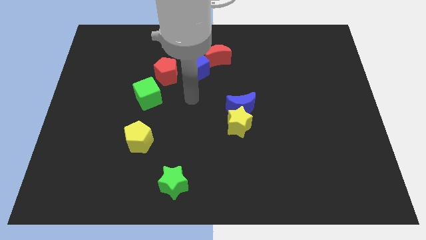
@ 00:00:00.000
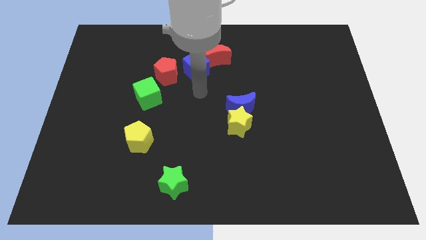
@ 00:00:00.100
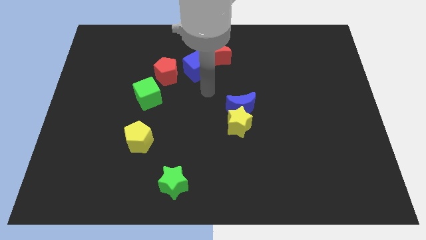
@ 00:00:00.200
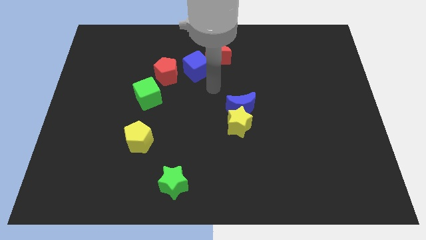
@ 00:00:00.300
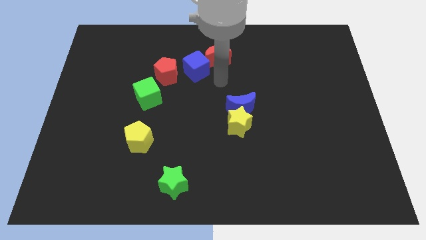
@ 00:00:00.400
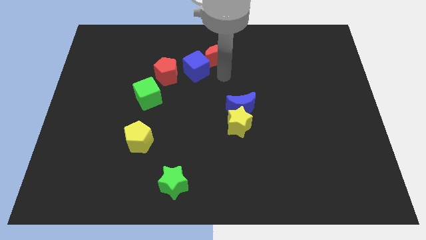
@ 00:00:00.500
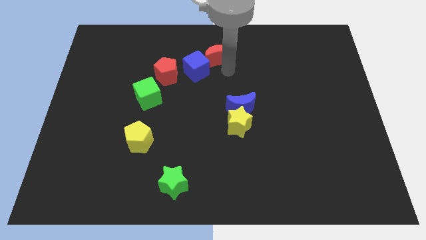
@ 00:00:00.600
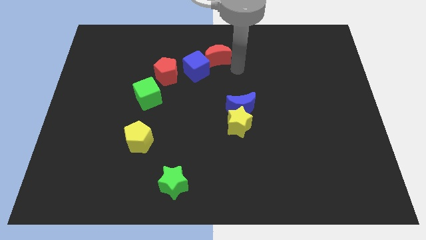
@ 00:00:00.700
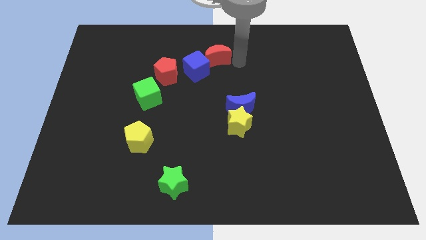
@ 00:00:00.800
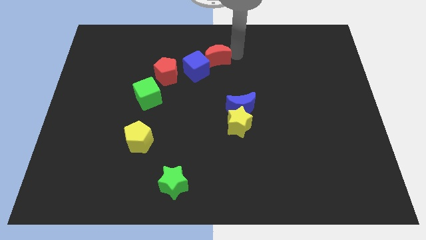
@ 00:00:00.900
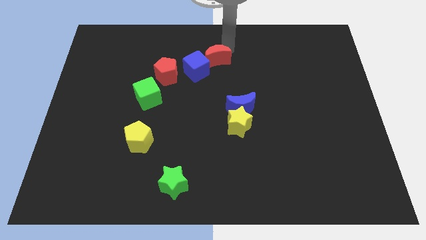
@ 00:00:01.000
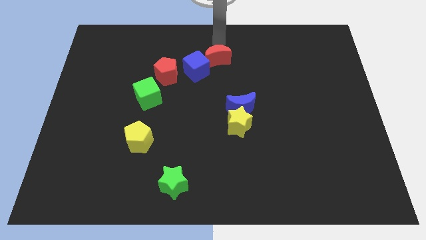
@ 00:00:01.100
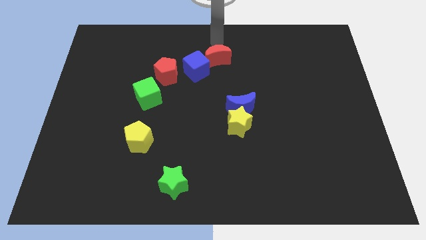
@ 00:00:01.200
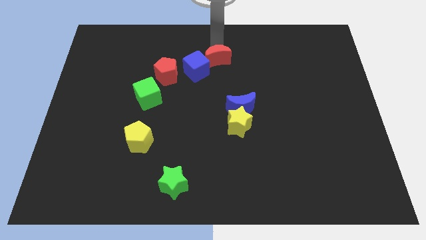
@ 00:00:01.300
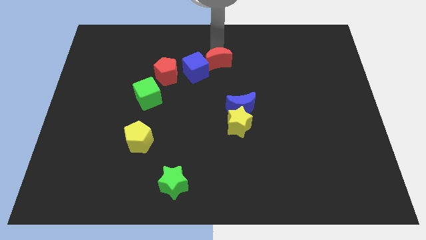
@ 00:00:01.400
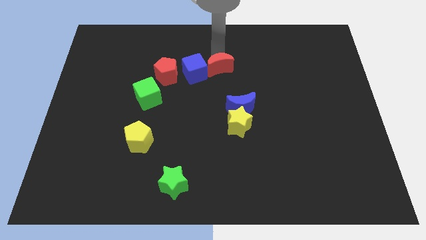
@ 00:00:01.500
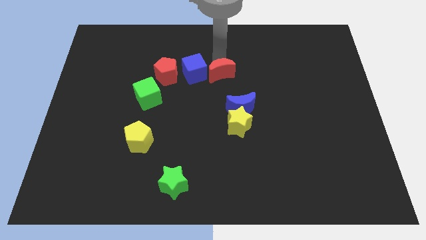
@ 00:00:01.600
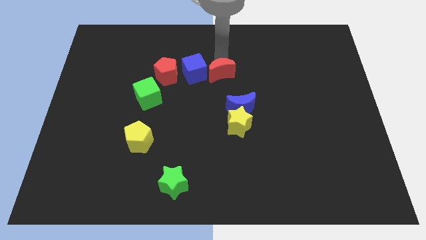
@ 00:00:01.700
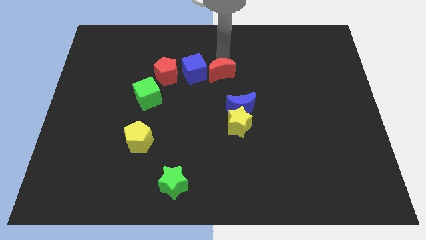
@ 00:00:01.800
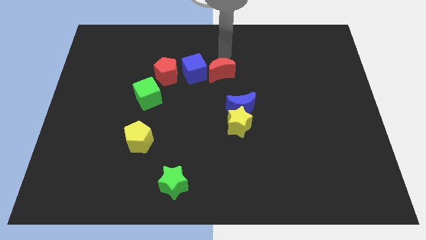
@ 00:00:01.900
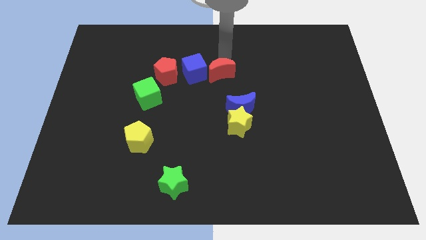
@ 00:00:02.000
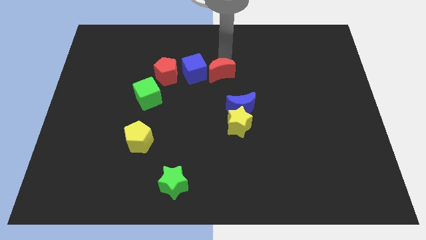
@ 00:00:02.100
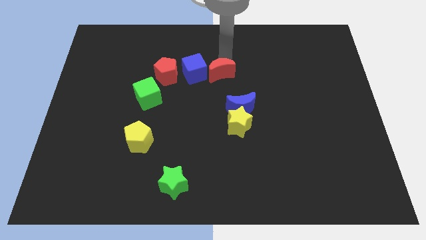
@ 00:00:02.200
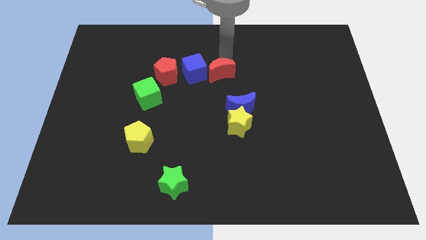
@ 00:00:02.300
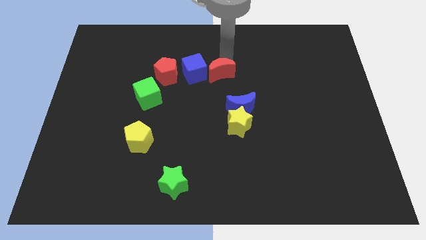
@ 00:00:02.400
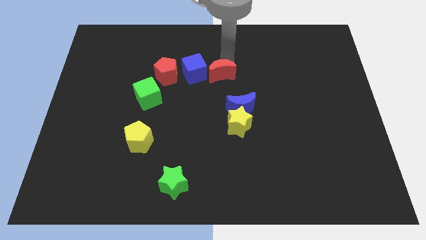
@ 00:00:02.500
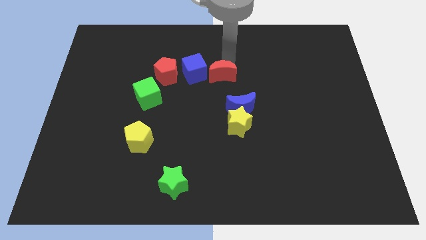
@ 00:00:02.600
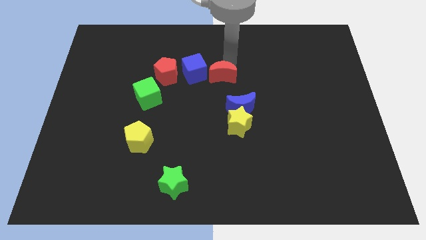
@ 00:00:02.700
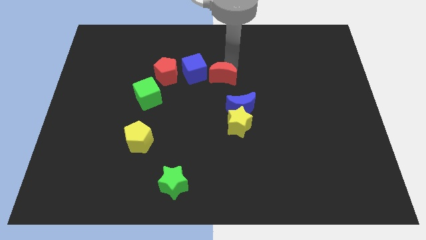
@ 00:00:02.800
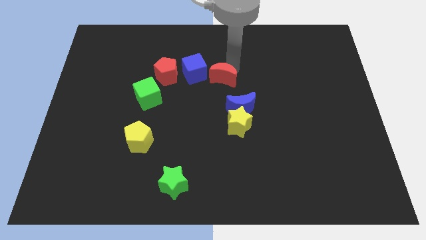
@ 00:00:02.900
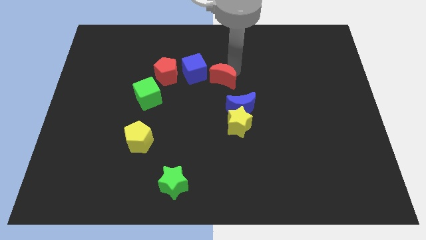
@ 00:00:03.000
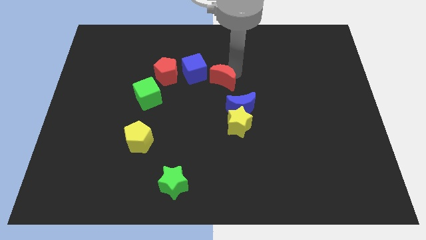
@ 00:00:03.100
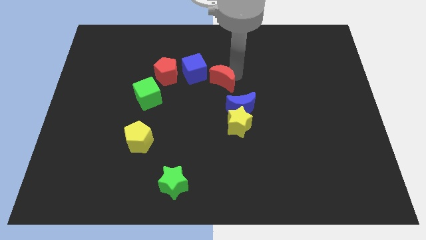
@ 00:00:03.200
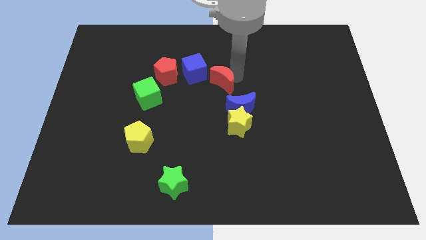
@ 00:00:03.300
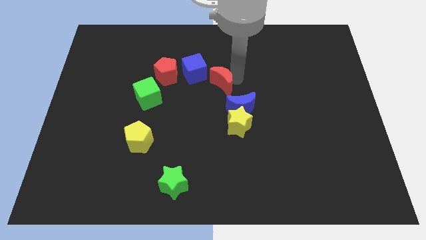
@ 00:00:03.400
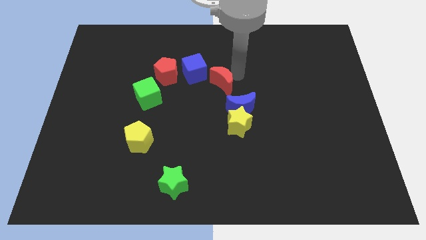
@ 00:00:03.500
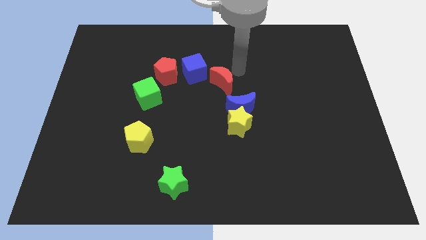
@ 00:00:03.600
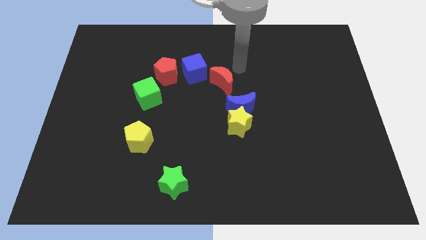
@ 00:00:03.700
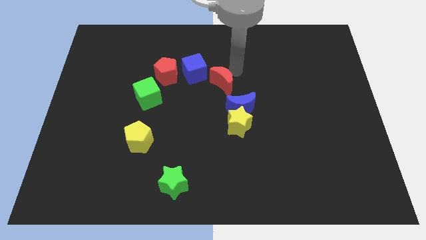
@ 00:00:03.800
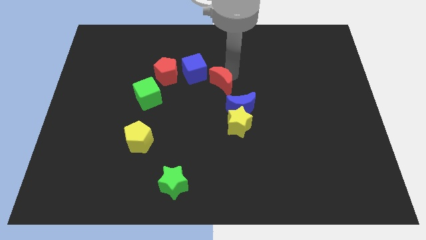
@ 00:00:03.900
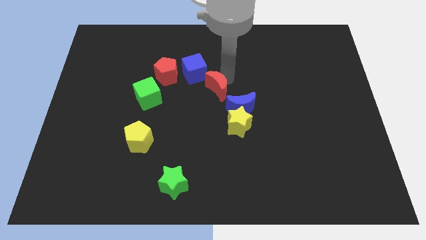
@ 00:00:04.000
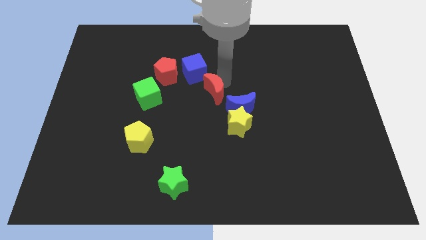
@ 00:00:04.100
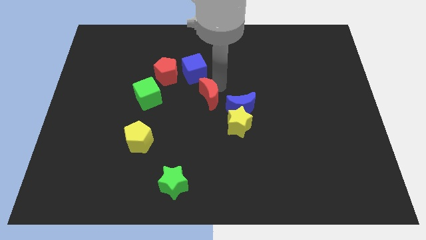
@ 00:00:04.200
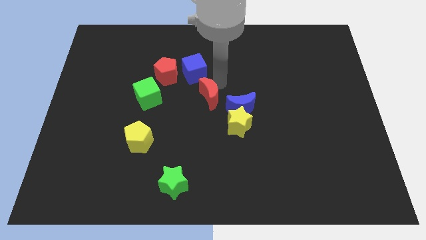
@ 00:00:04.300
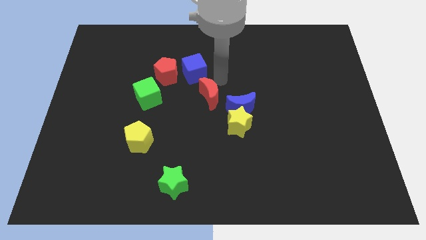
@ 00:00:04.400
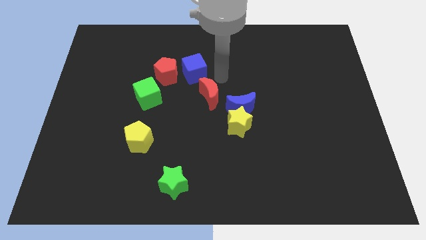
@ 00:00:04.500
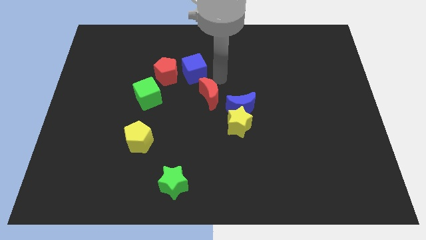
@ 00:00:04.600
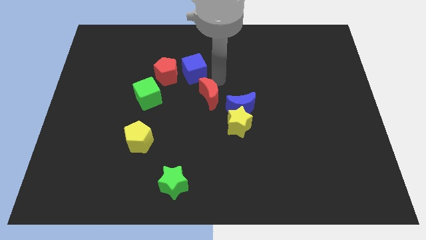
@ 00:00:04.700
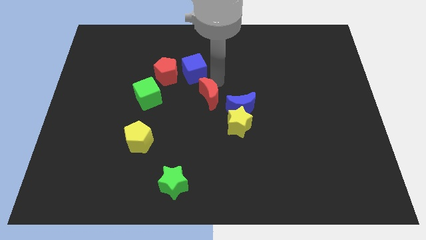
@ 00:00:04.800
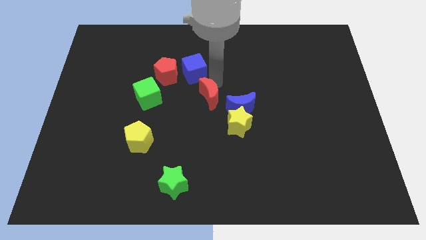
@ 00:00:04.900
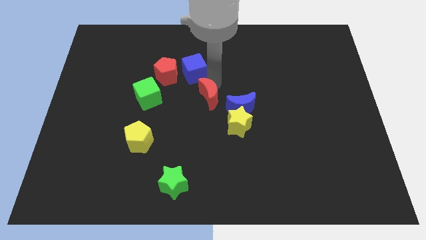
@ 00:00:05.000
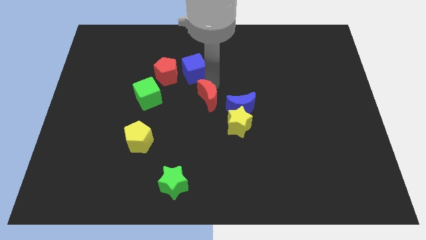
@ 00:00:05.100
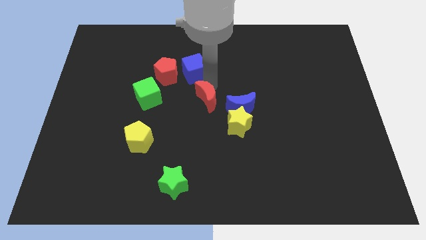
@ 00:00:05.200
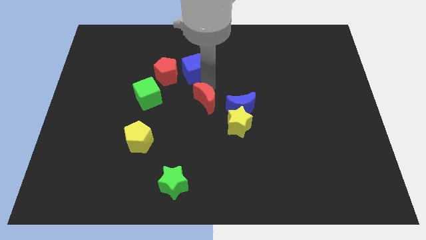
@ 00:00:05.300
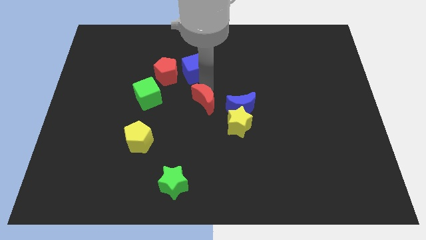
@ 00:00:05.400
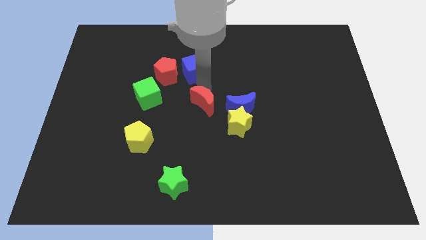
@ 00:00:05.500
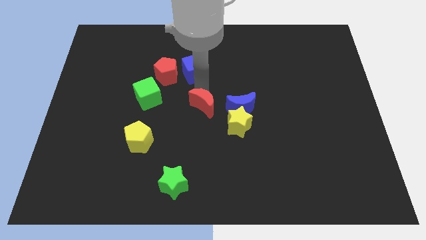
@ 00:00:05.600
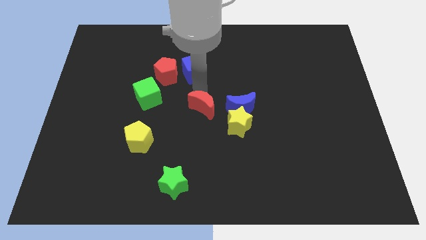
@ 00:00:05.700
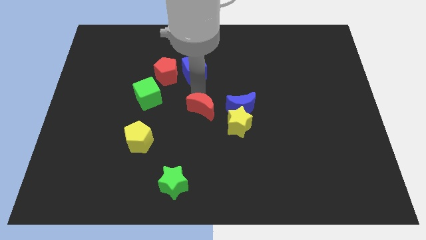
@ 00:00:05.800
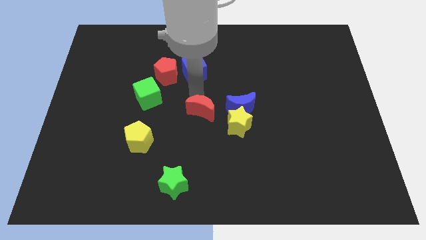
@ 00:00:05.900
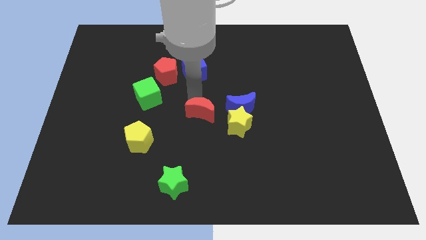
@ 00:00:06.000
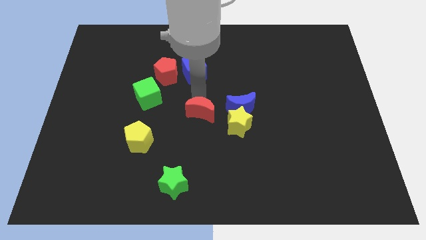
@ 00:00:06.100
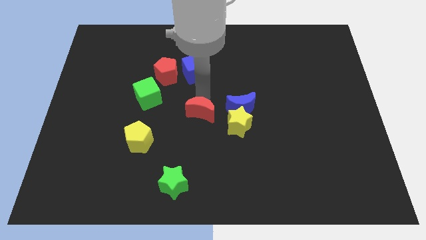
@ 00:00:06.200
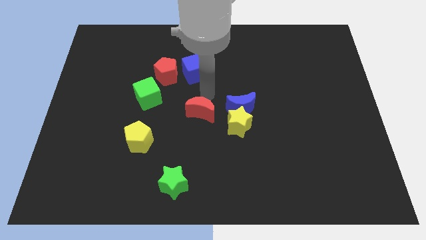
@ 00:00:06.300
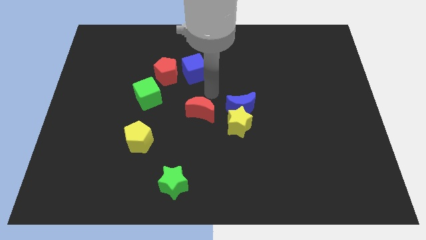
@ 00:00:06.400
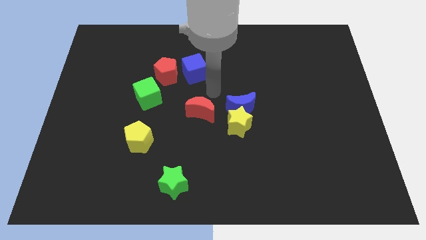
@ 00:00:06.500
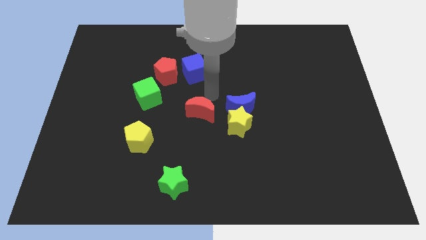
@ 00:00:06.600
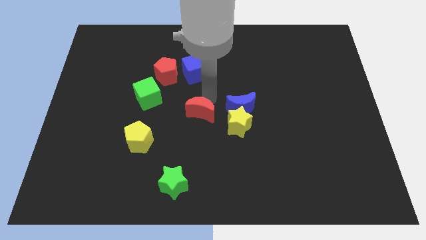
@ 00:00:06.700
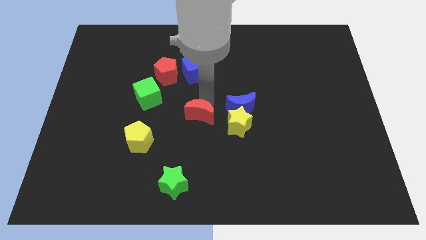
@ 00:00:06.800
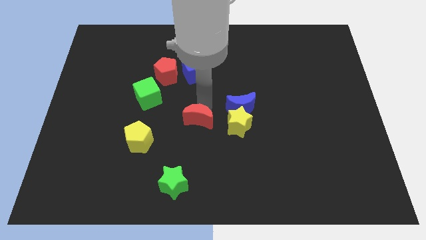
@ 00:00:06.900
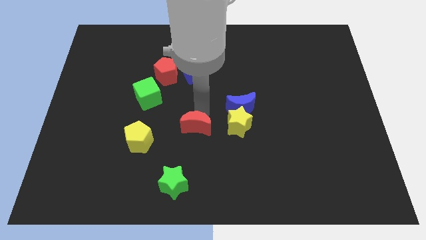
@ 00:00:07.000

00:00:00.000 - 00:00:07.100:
push the red moon to the right side of the yellow pentagon

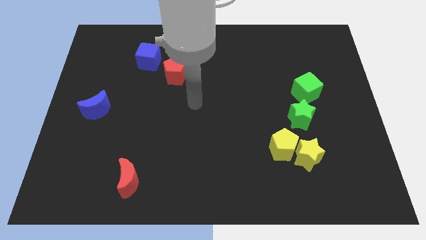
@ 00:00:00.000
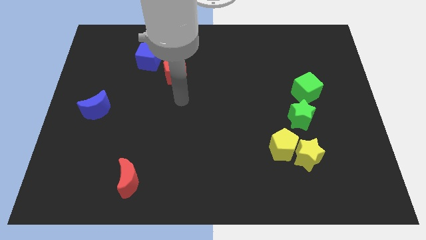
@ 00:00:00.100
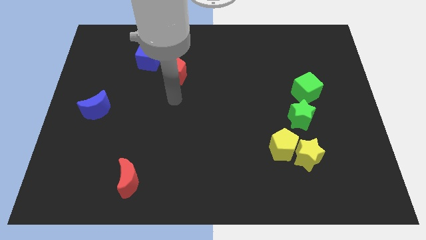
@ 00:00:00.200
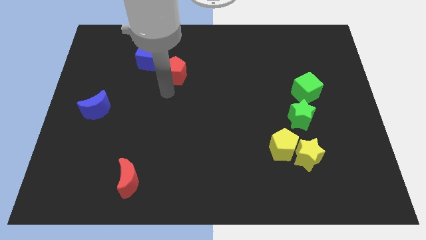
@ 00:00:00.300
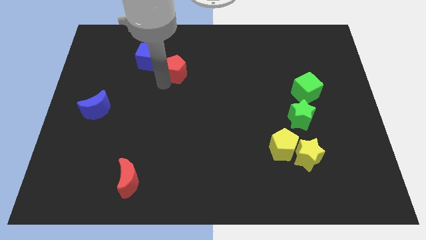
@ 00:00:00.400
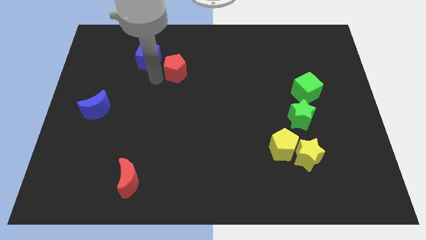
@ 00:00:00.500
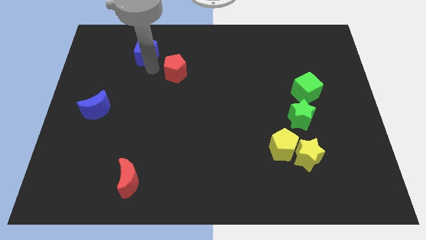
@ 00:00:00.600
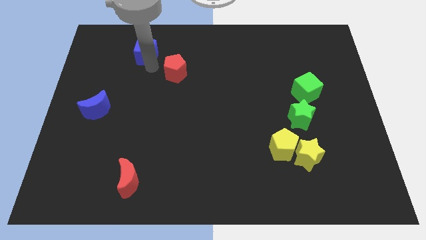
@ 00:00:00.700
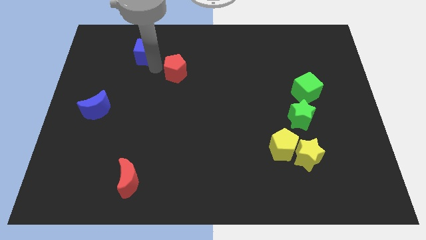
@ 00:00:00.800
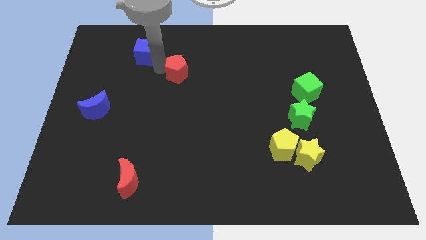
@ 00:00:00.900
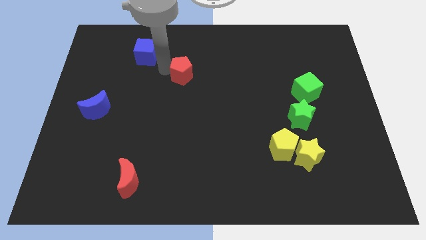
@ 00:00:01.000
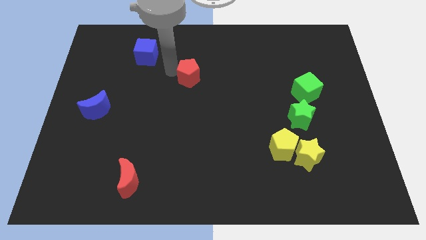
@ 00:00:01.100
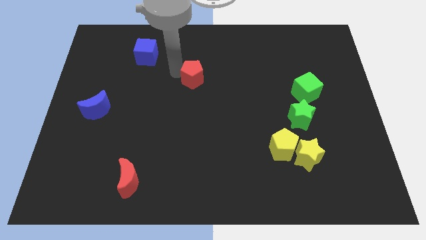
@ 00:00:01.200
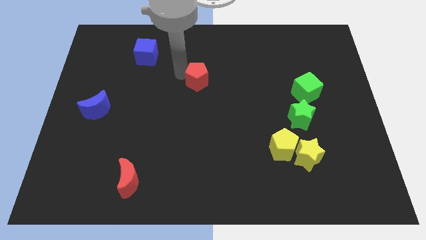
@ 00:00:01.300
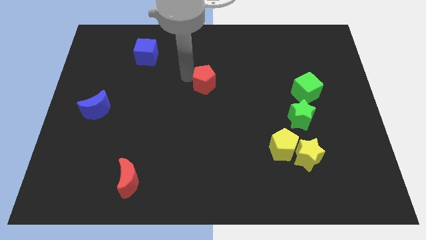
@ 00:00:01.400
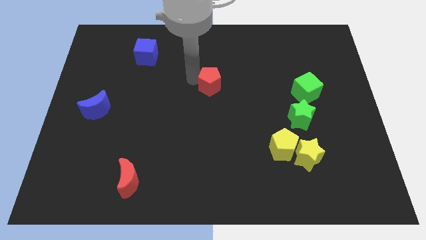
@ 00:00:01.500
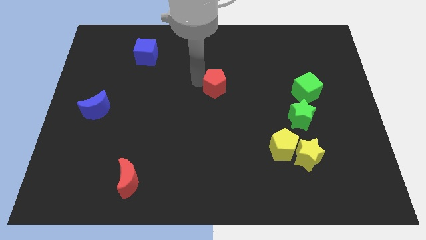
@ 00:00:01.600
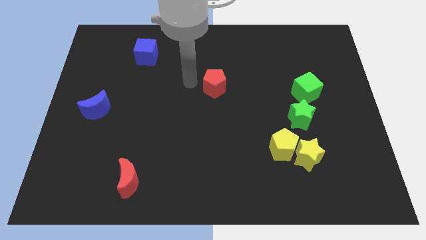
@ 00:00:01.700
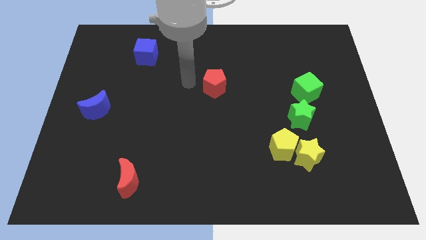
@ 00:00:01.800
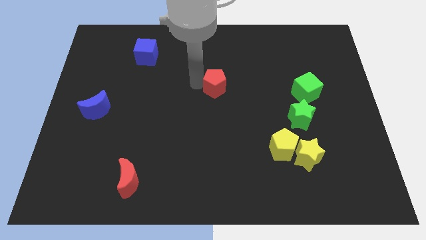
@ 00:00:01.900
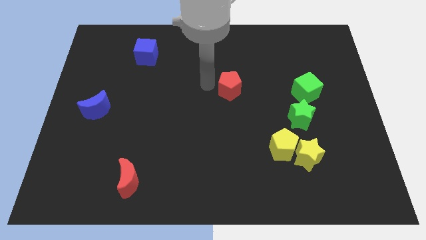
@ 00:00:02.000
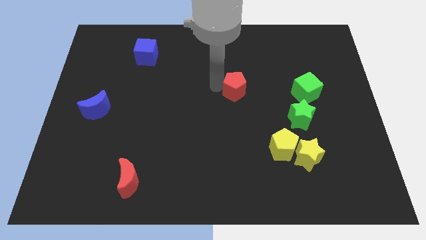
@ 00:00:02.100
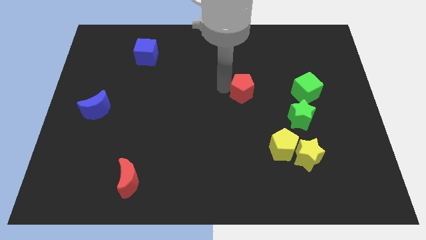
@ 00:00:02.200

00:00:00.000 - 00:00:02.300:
slide the red pentagon left of the green cube
